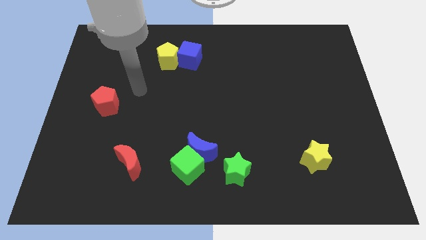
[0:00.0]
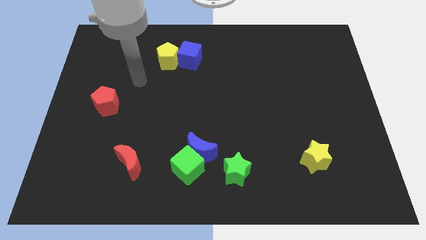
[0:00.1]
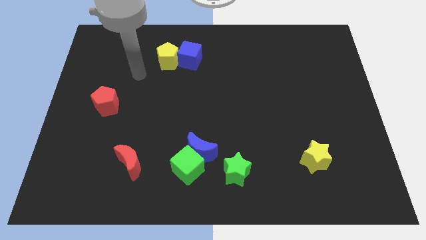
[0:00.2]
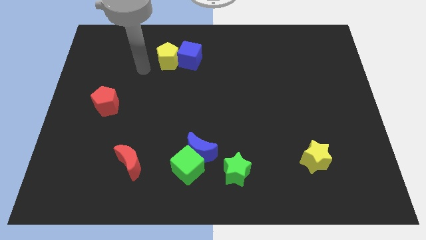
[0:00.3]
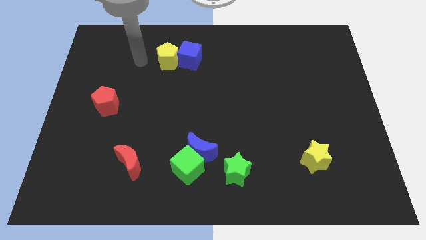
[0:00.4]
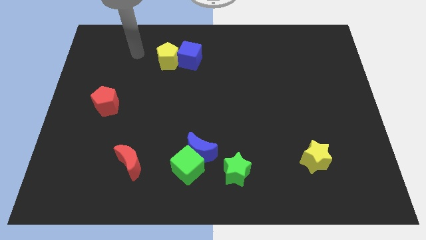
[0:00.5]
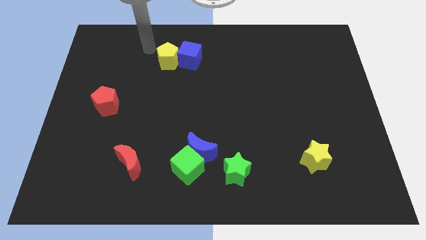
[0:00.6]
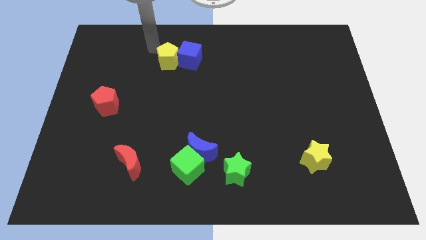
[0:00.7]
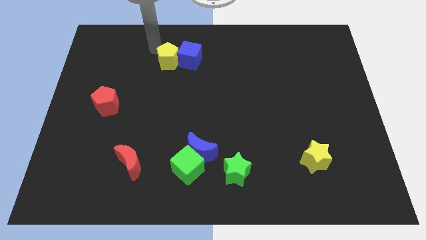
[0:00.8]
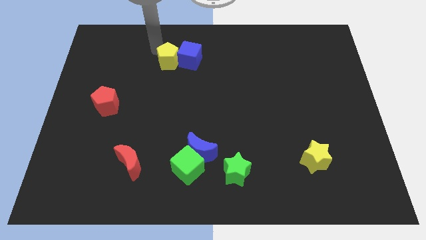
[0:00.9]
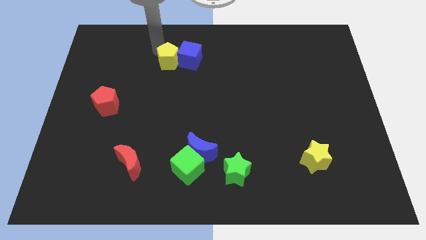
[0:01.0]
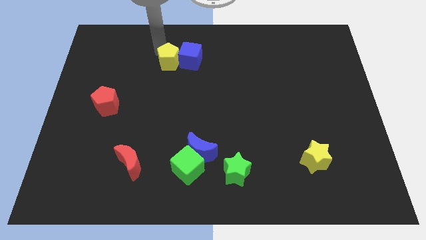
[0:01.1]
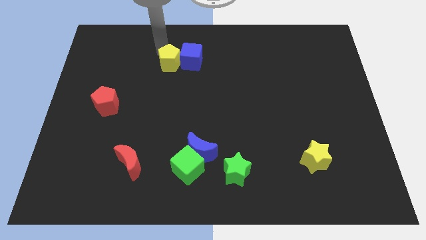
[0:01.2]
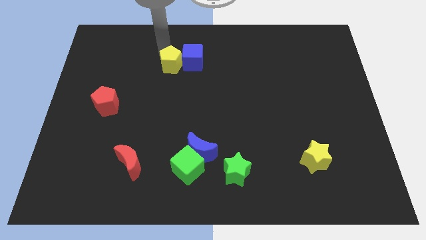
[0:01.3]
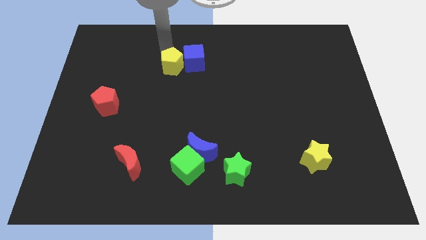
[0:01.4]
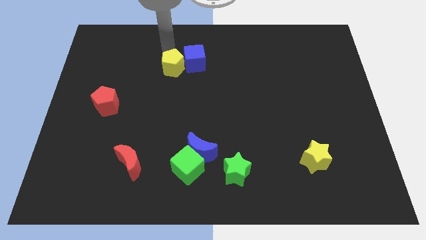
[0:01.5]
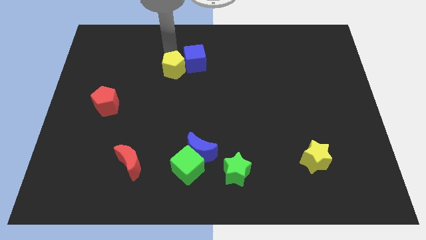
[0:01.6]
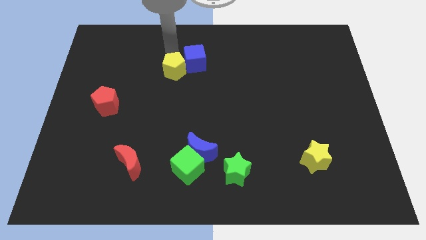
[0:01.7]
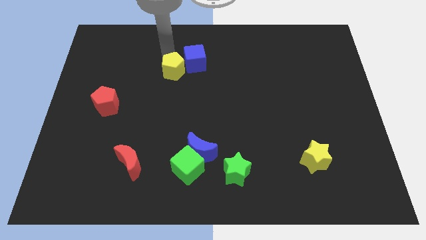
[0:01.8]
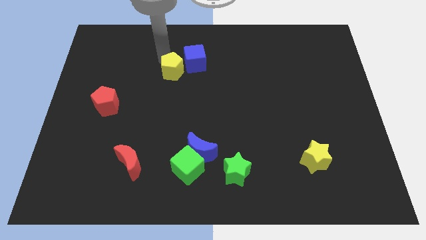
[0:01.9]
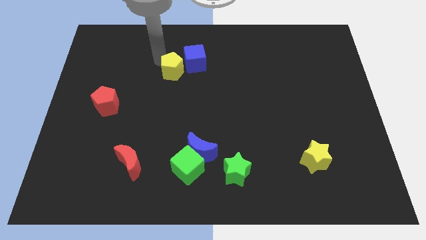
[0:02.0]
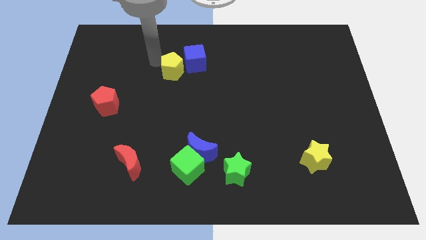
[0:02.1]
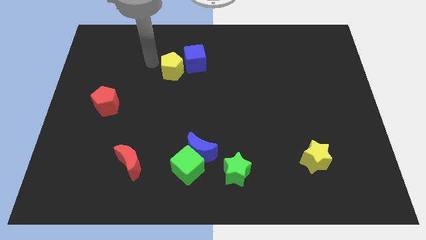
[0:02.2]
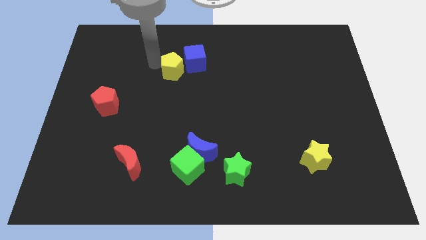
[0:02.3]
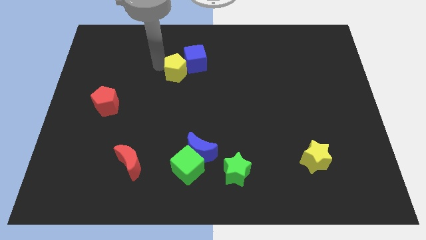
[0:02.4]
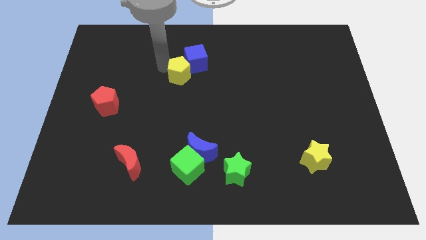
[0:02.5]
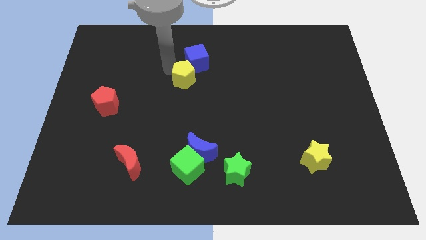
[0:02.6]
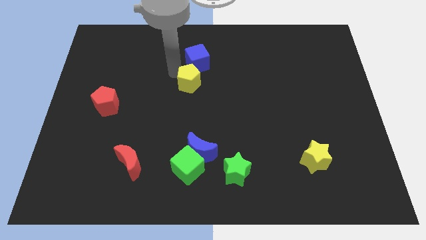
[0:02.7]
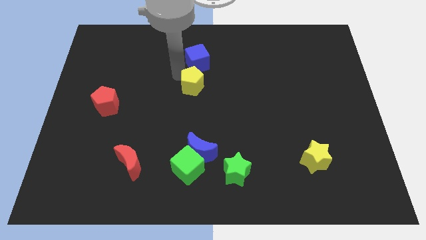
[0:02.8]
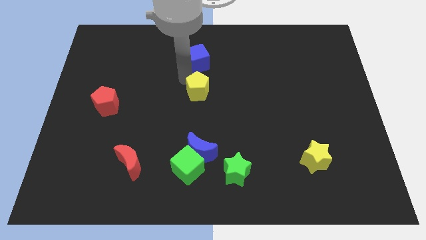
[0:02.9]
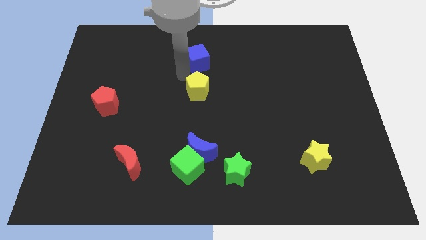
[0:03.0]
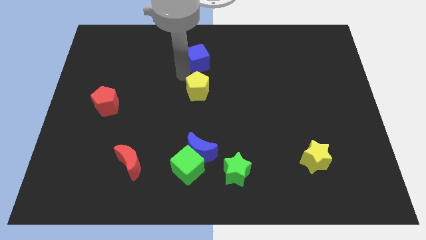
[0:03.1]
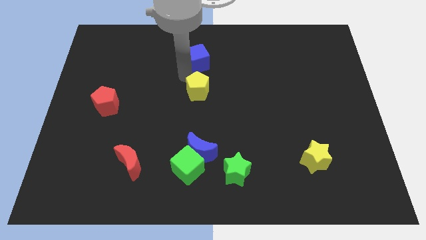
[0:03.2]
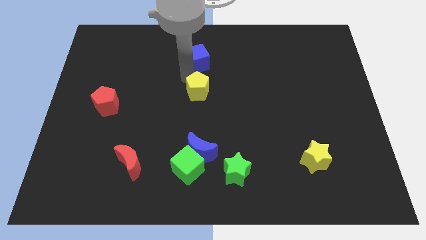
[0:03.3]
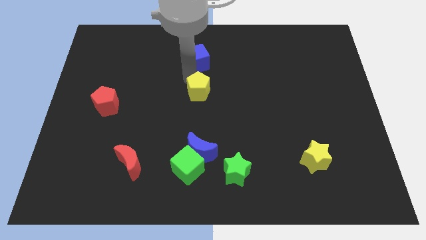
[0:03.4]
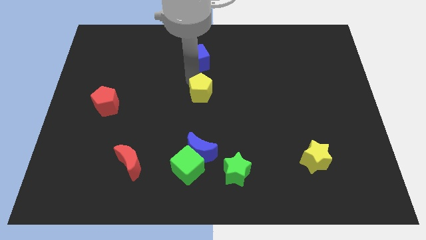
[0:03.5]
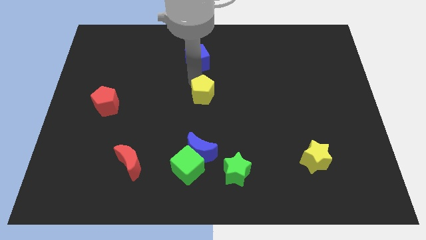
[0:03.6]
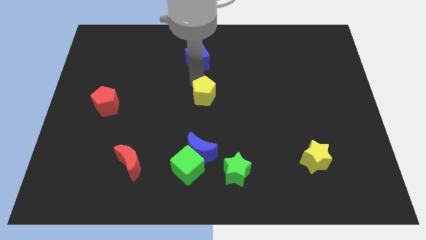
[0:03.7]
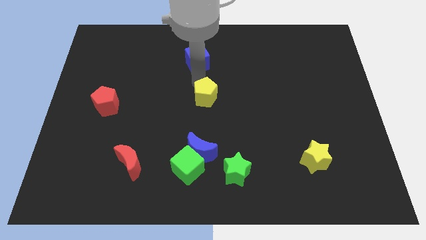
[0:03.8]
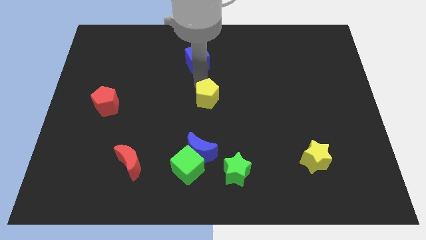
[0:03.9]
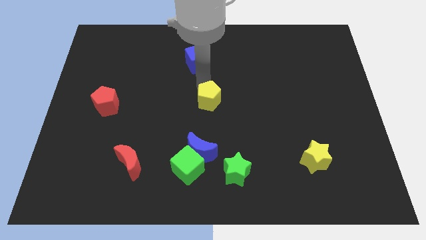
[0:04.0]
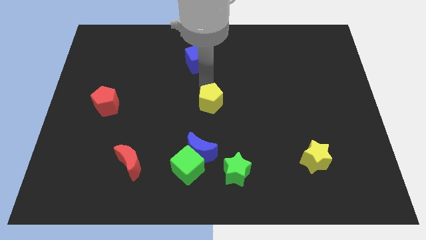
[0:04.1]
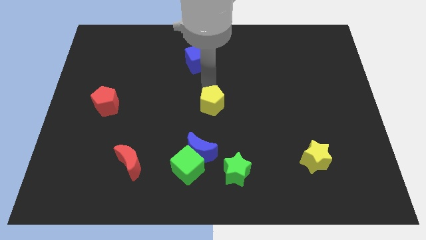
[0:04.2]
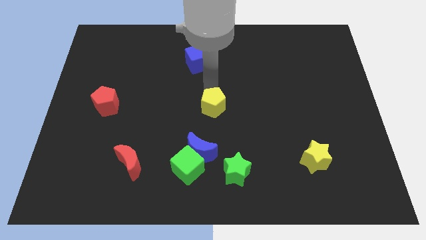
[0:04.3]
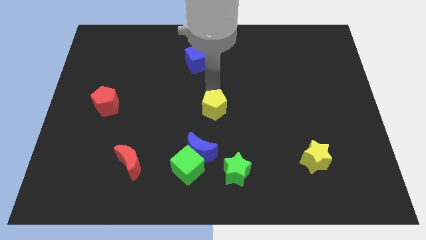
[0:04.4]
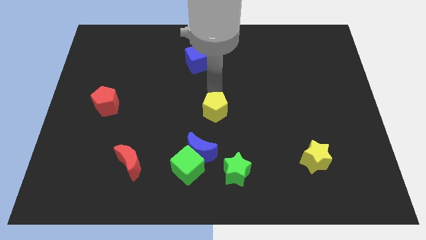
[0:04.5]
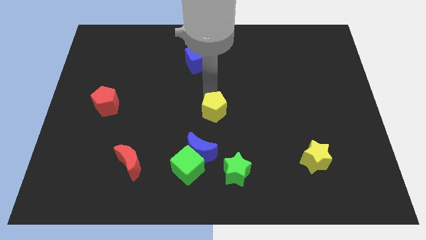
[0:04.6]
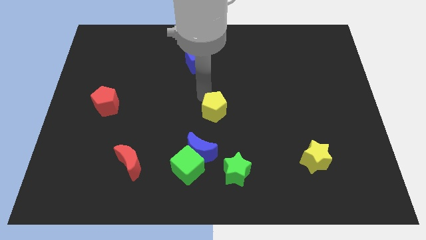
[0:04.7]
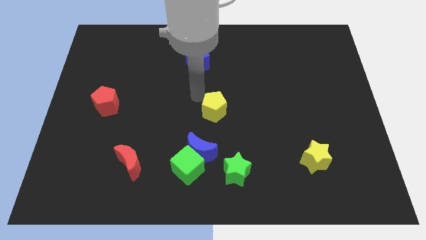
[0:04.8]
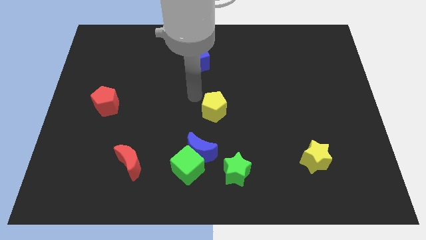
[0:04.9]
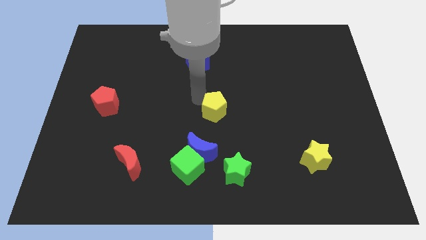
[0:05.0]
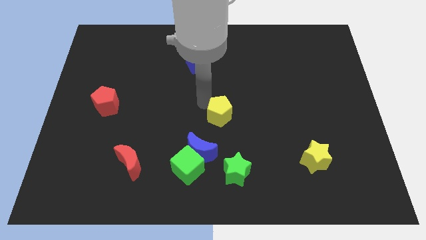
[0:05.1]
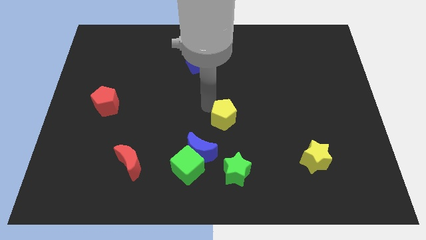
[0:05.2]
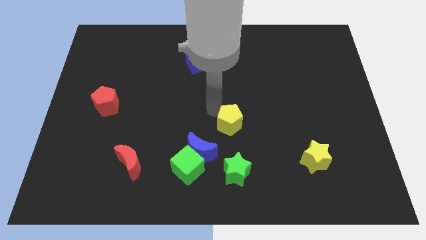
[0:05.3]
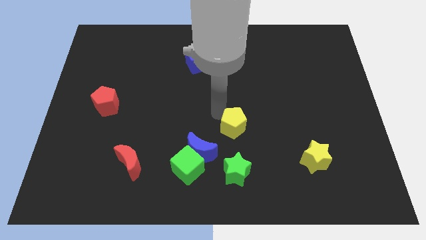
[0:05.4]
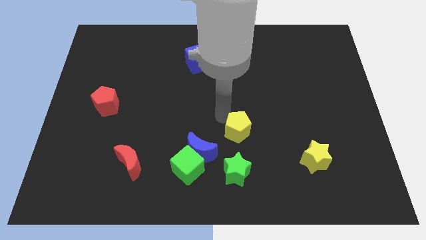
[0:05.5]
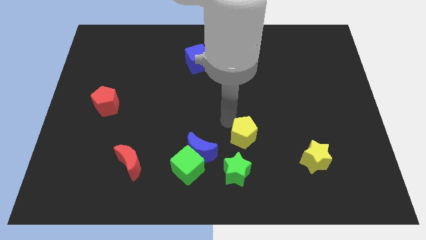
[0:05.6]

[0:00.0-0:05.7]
put the yellow pentagon to the top right side of the green star

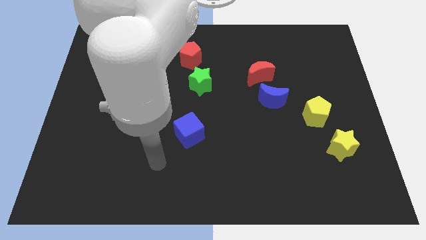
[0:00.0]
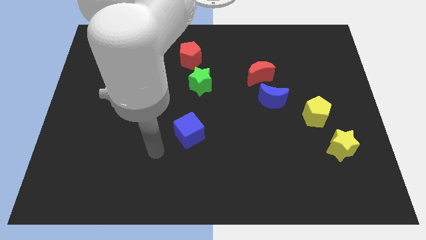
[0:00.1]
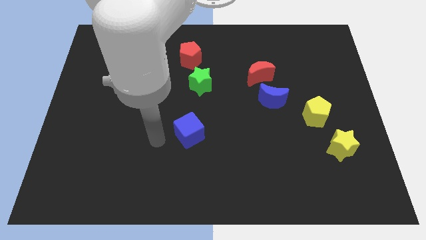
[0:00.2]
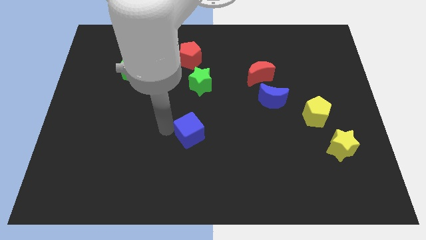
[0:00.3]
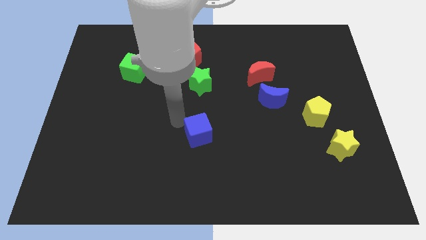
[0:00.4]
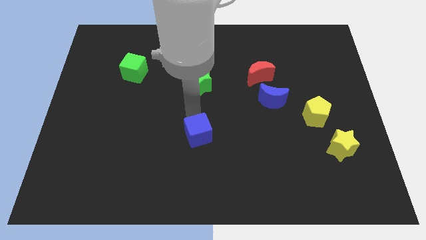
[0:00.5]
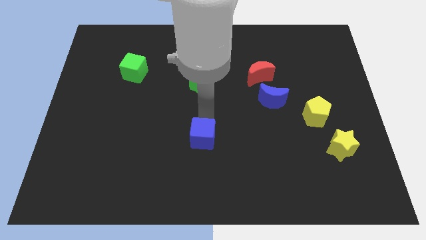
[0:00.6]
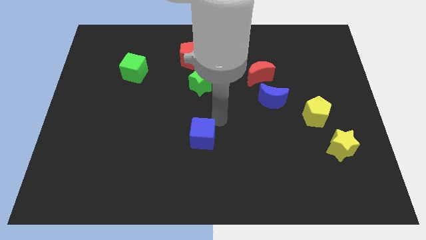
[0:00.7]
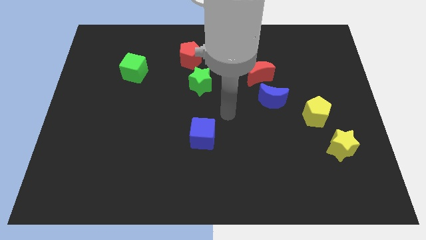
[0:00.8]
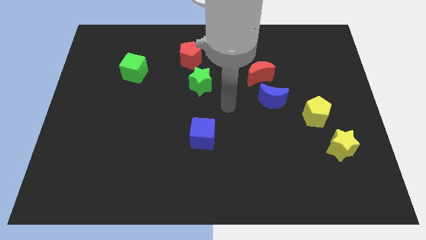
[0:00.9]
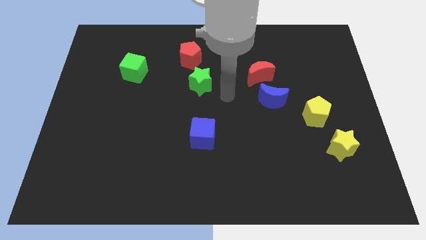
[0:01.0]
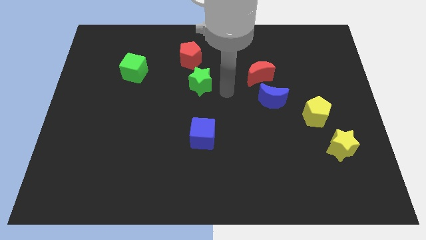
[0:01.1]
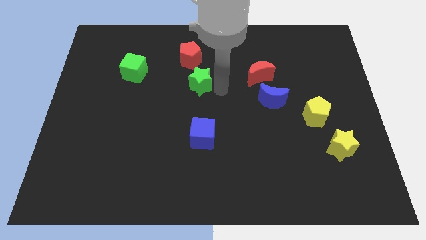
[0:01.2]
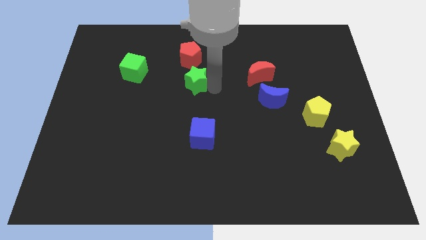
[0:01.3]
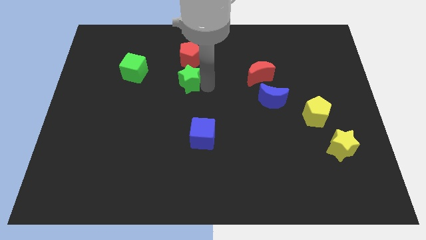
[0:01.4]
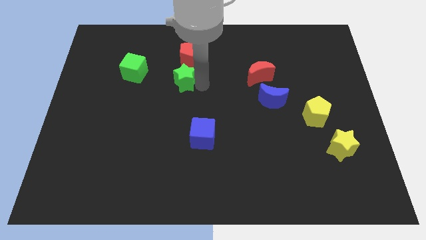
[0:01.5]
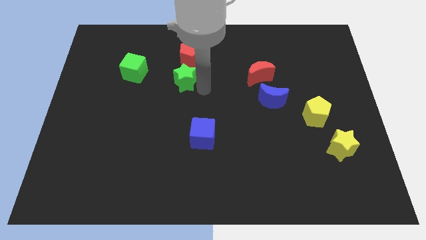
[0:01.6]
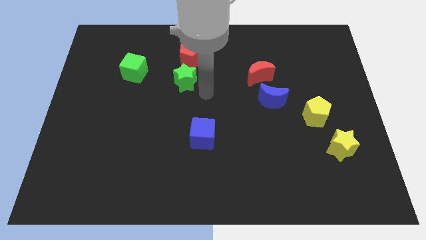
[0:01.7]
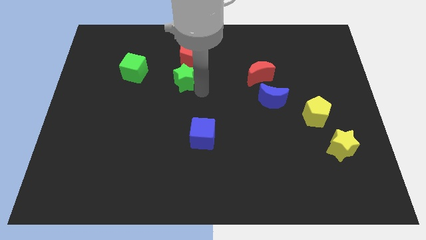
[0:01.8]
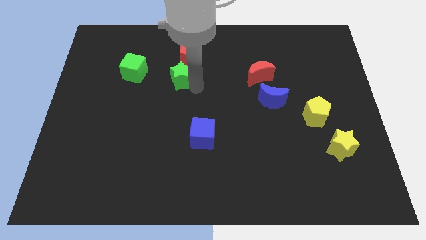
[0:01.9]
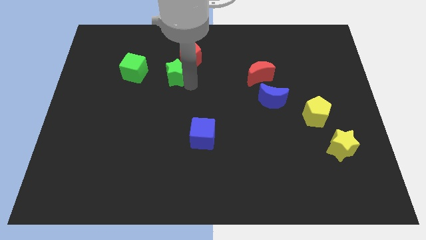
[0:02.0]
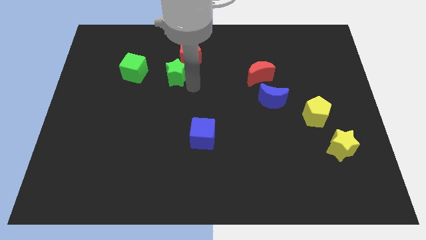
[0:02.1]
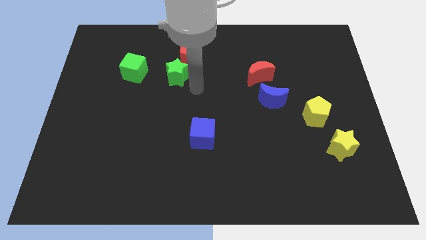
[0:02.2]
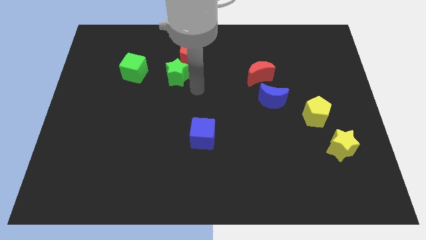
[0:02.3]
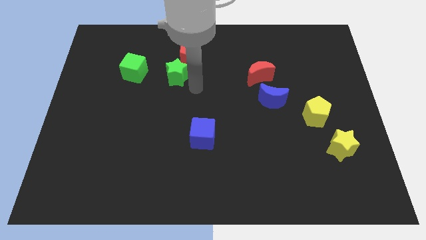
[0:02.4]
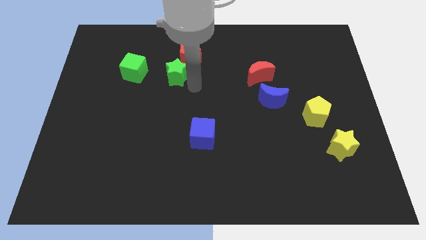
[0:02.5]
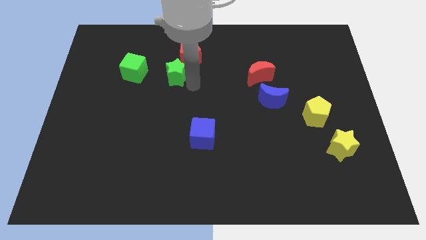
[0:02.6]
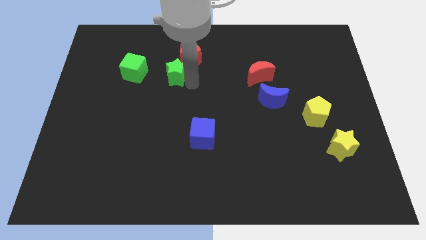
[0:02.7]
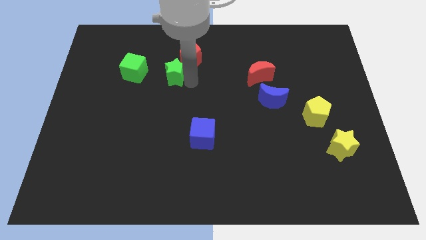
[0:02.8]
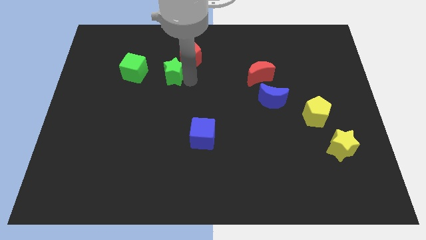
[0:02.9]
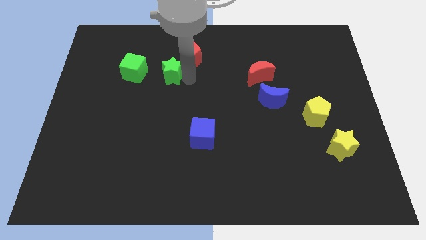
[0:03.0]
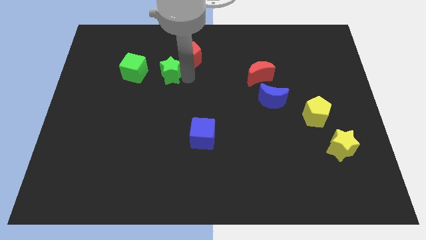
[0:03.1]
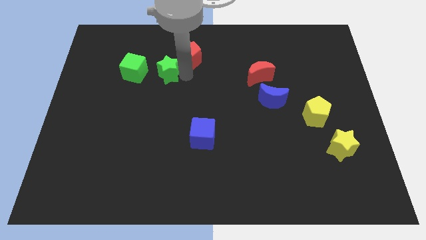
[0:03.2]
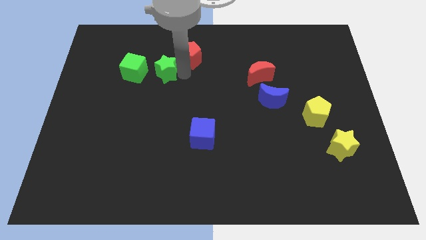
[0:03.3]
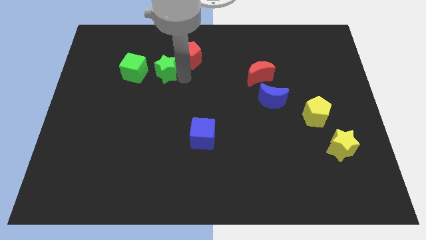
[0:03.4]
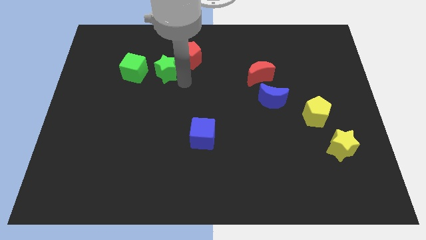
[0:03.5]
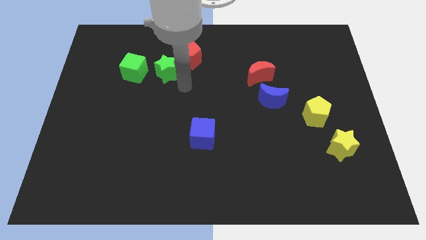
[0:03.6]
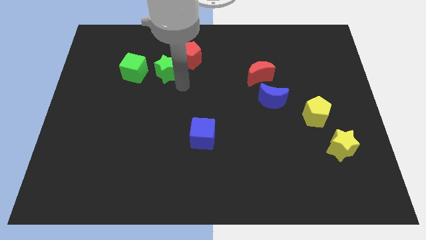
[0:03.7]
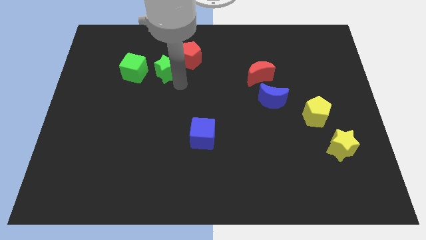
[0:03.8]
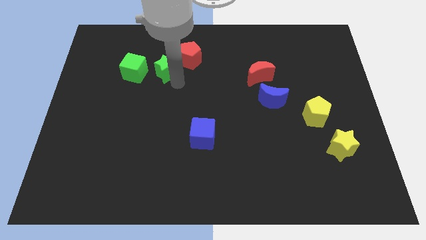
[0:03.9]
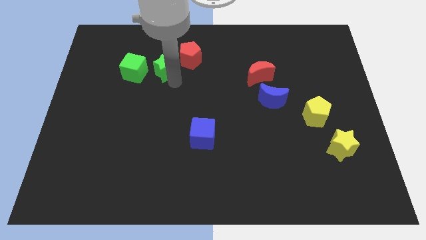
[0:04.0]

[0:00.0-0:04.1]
move the green star just left of the red pentagon
